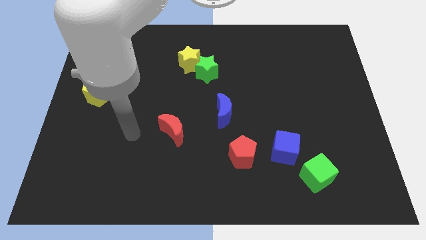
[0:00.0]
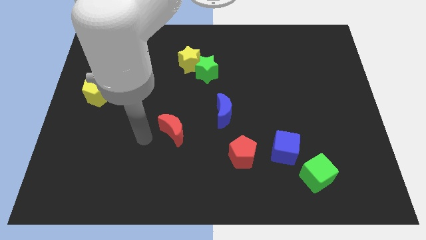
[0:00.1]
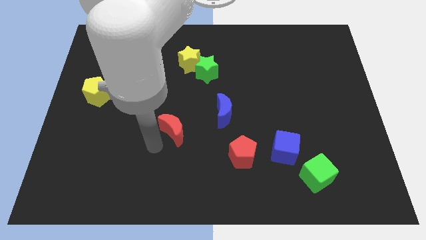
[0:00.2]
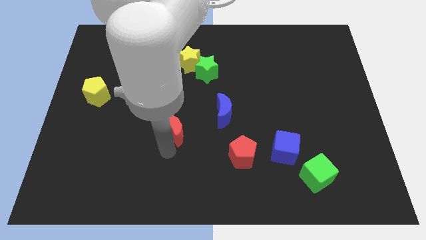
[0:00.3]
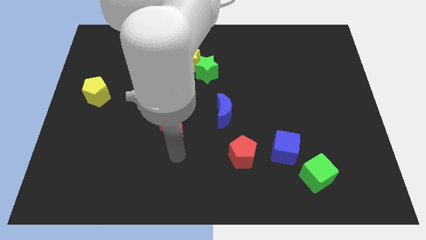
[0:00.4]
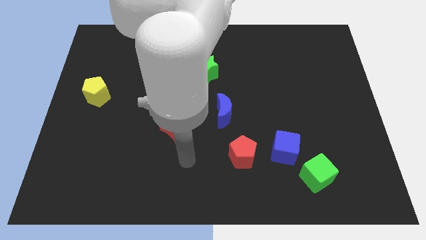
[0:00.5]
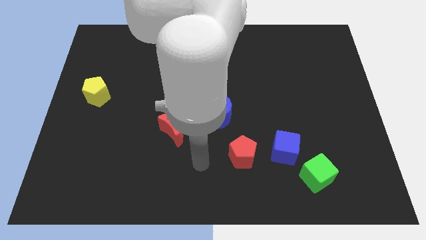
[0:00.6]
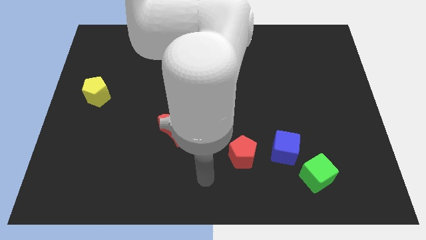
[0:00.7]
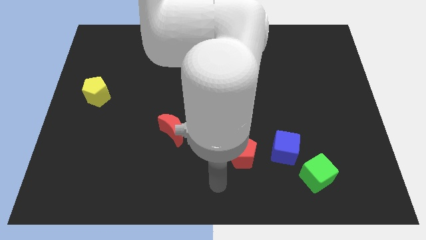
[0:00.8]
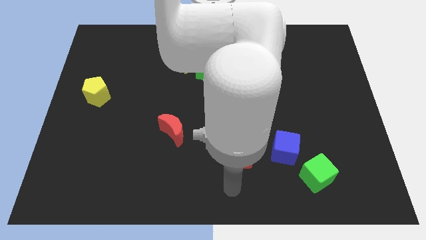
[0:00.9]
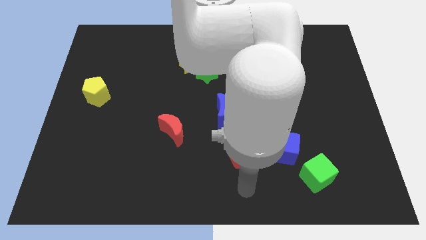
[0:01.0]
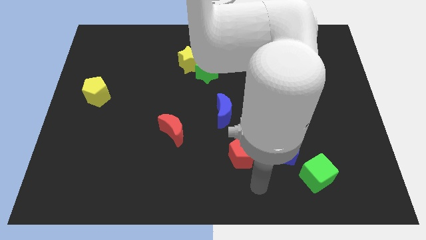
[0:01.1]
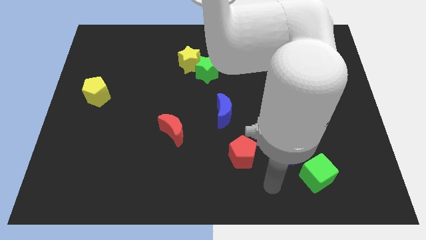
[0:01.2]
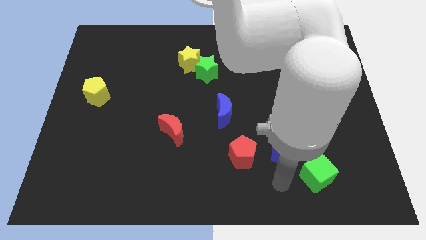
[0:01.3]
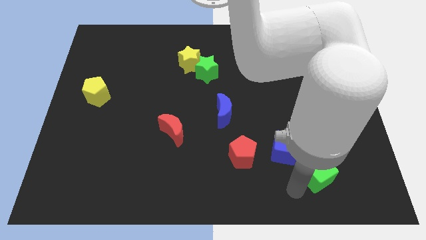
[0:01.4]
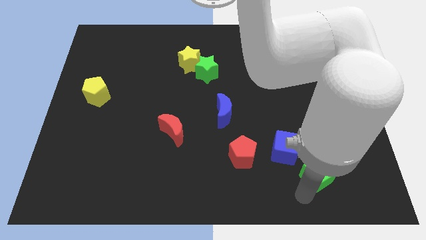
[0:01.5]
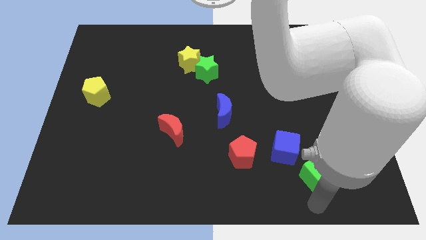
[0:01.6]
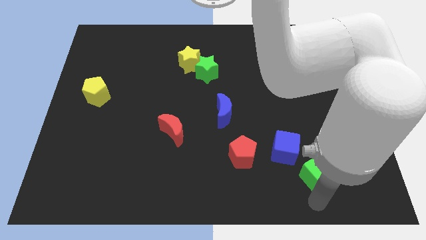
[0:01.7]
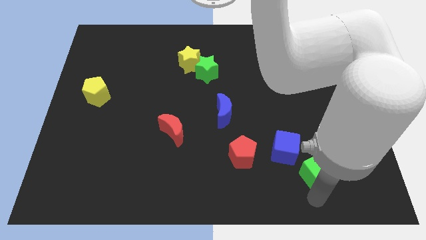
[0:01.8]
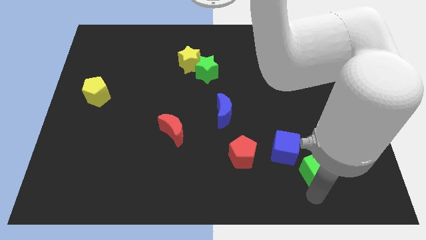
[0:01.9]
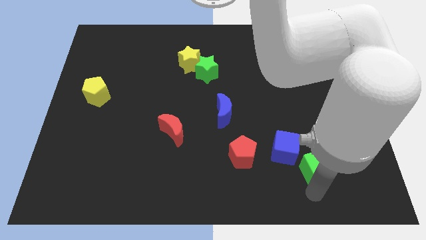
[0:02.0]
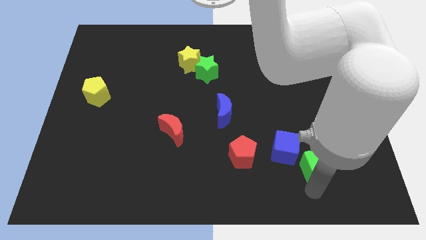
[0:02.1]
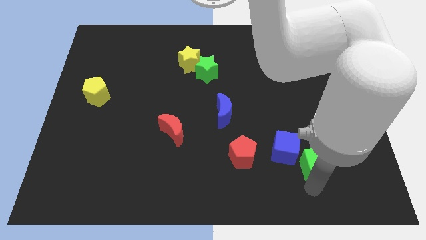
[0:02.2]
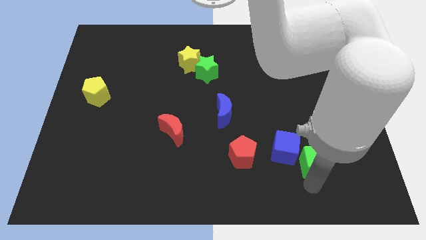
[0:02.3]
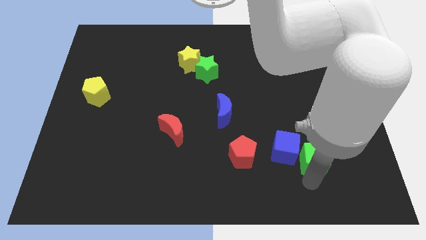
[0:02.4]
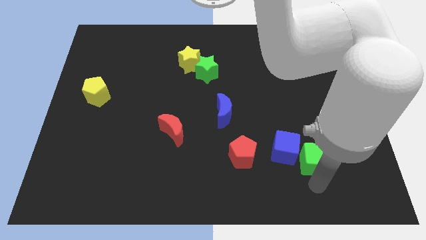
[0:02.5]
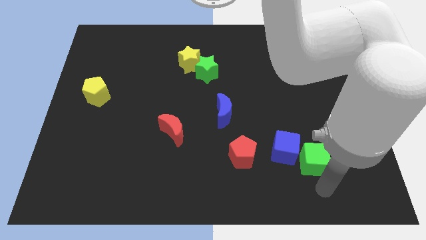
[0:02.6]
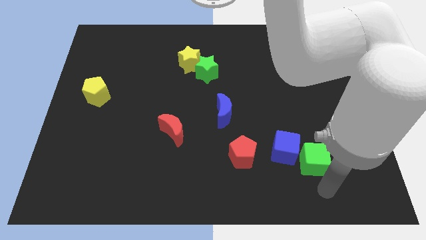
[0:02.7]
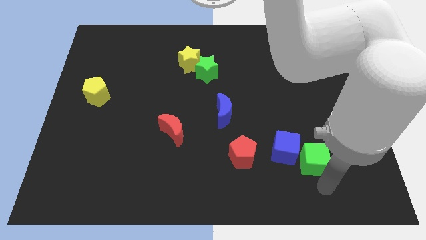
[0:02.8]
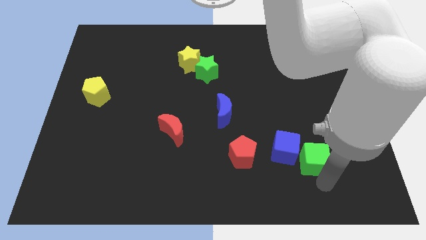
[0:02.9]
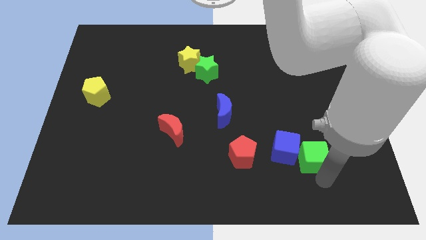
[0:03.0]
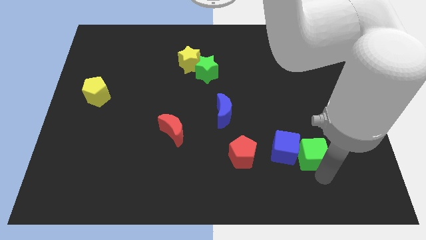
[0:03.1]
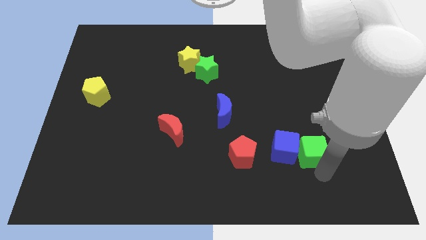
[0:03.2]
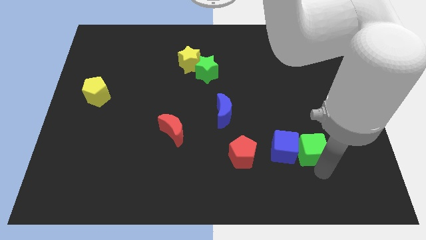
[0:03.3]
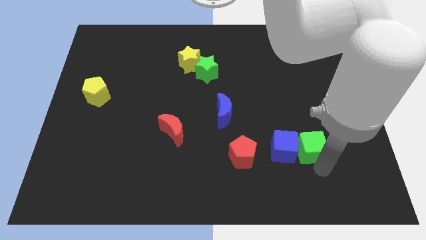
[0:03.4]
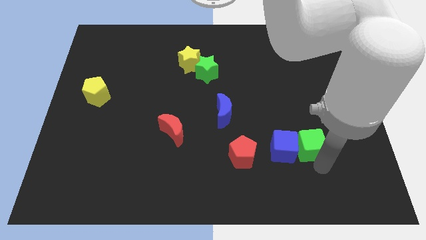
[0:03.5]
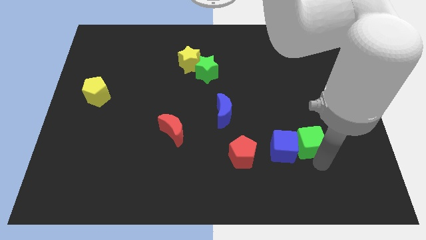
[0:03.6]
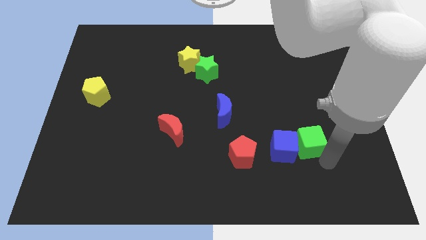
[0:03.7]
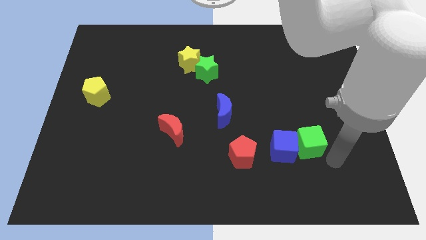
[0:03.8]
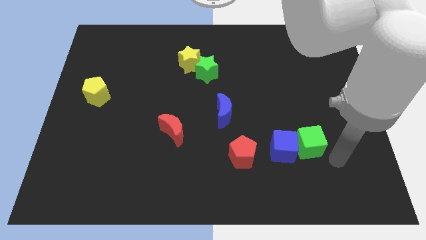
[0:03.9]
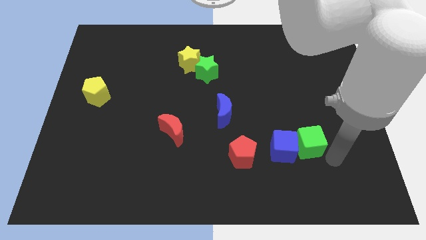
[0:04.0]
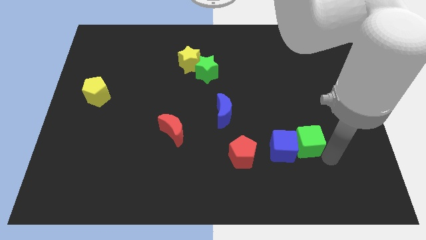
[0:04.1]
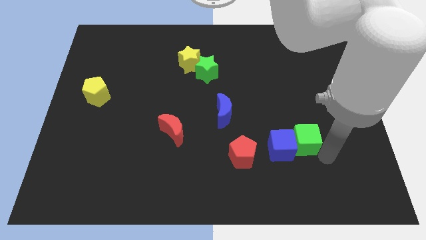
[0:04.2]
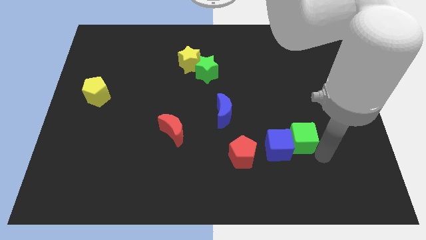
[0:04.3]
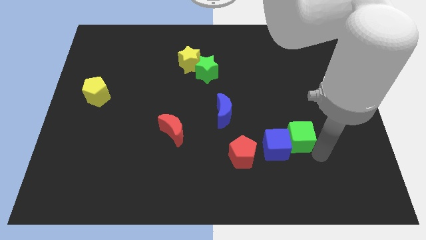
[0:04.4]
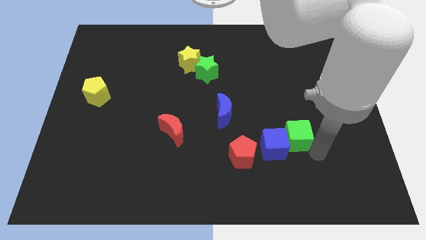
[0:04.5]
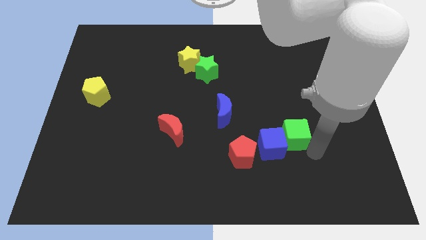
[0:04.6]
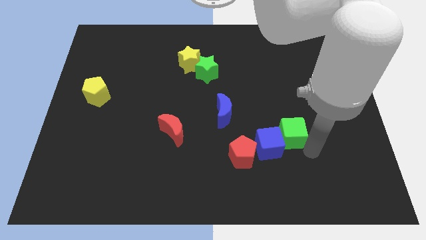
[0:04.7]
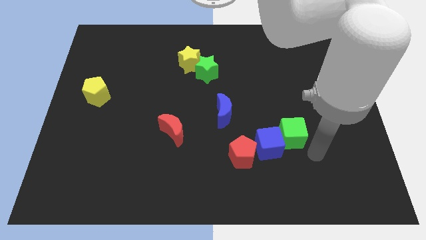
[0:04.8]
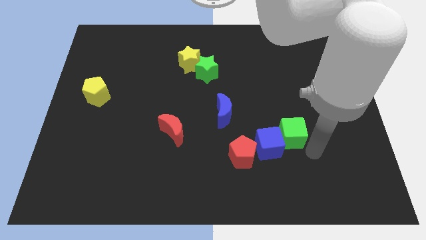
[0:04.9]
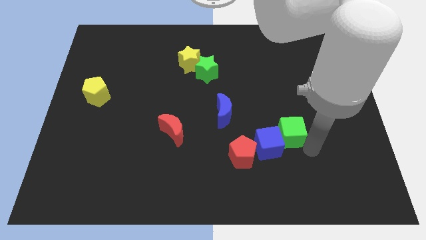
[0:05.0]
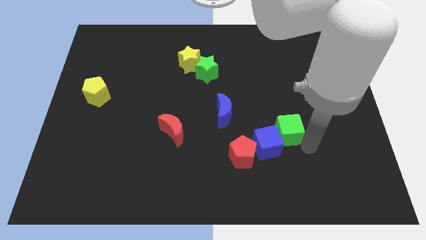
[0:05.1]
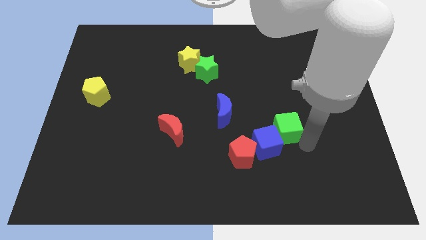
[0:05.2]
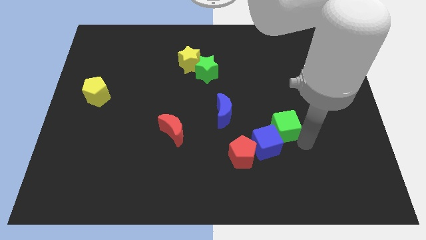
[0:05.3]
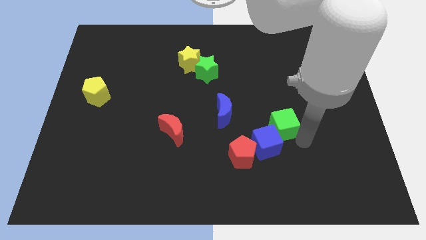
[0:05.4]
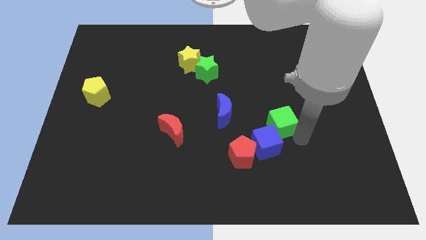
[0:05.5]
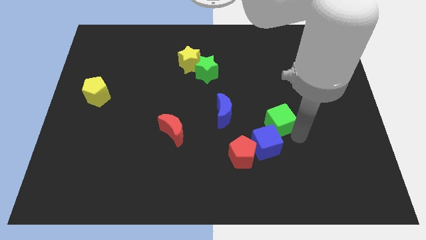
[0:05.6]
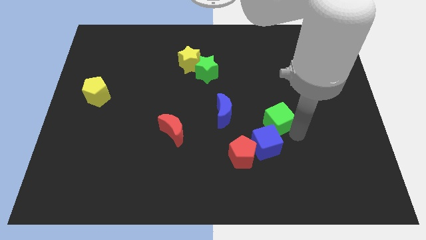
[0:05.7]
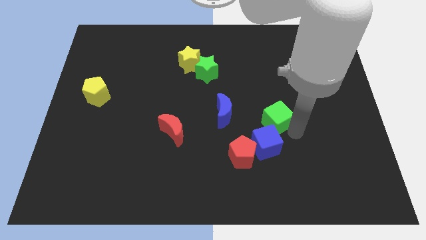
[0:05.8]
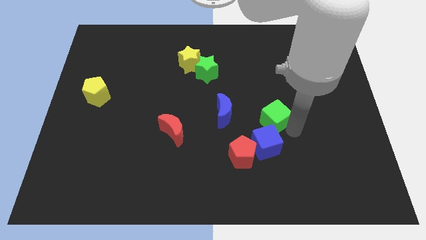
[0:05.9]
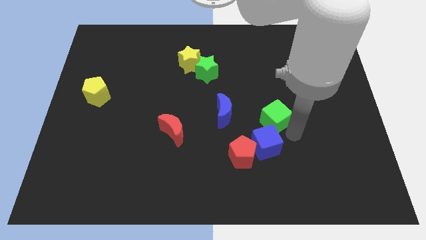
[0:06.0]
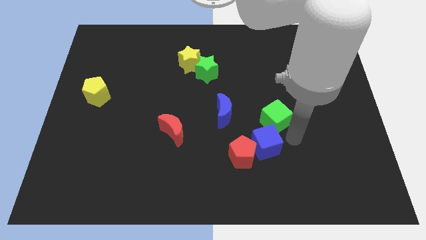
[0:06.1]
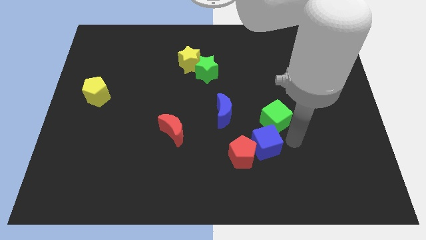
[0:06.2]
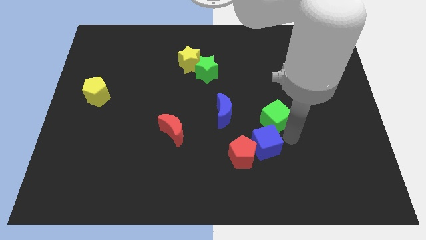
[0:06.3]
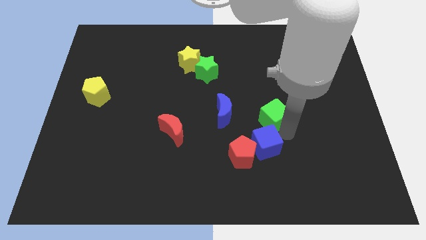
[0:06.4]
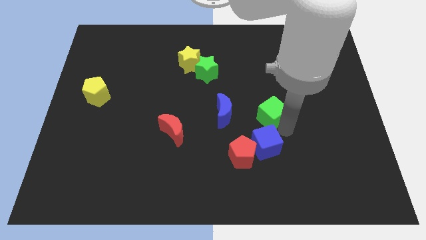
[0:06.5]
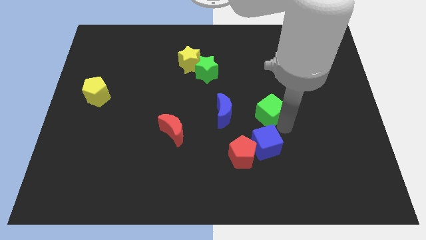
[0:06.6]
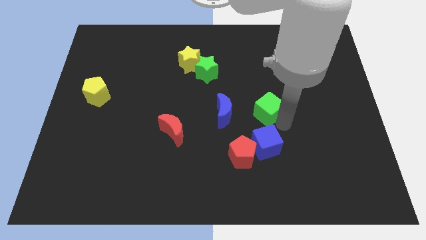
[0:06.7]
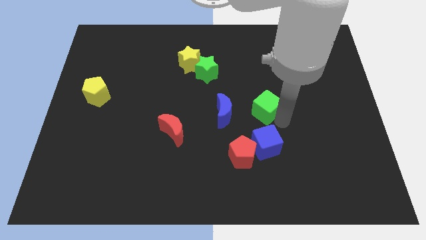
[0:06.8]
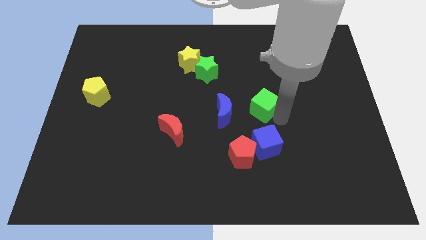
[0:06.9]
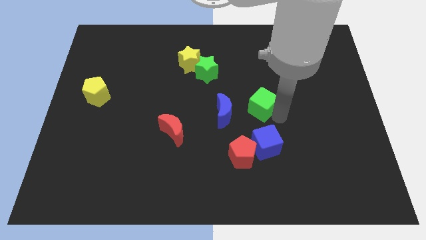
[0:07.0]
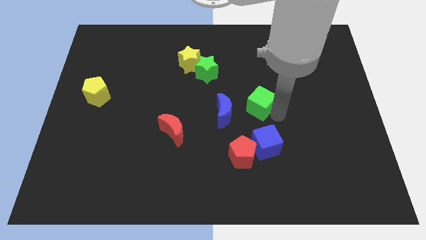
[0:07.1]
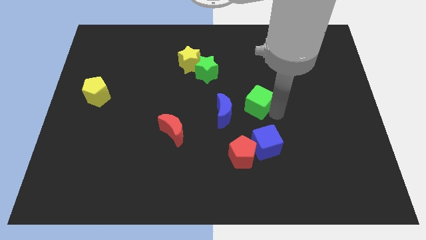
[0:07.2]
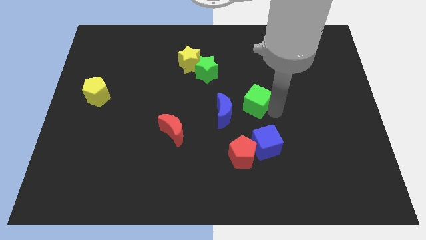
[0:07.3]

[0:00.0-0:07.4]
move the green cube up and left diagonally

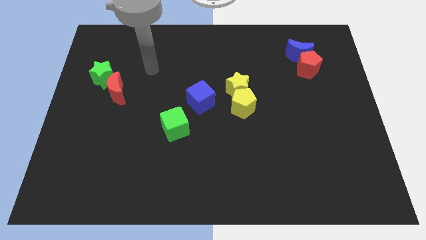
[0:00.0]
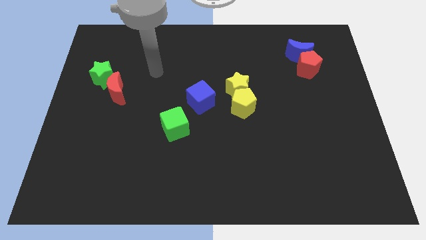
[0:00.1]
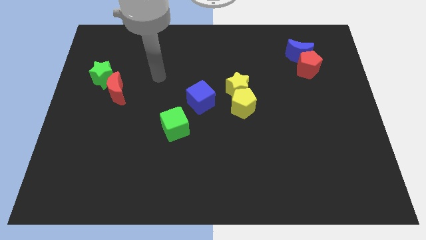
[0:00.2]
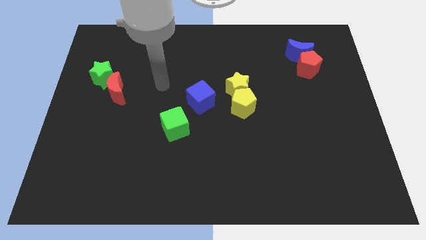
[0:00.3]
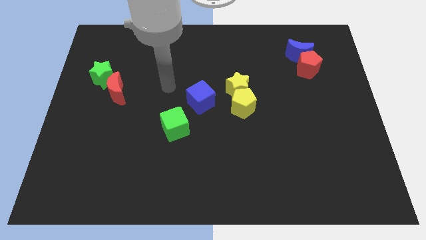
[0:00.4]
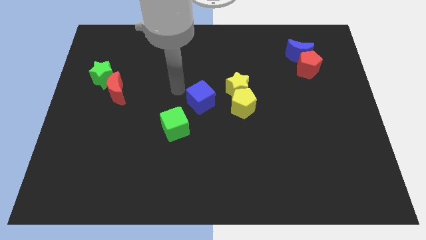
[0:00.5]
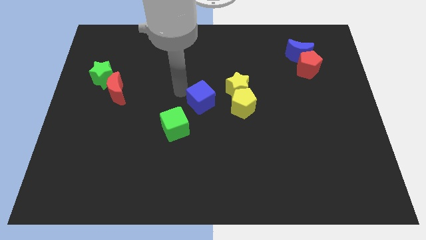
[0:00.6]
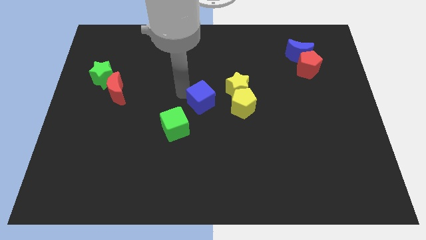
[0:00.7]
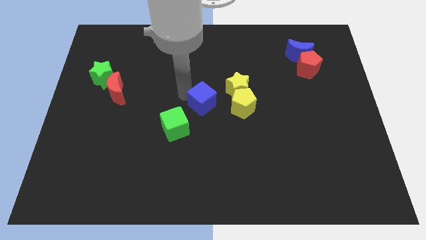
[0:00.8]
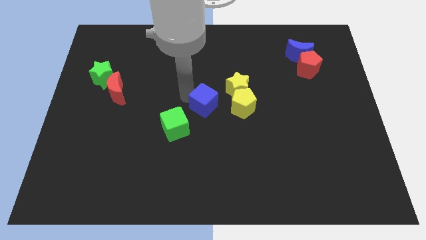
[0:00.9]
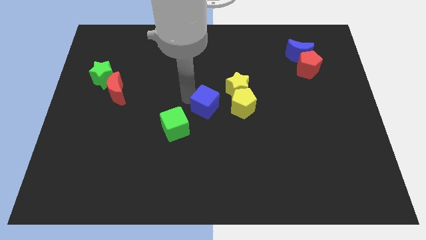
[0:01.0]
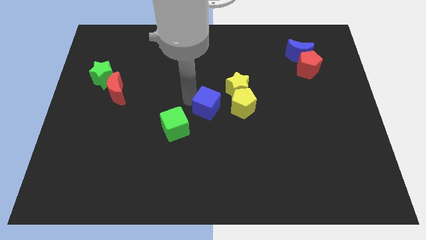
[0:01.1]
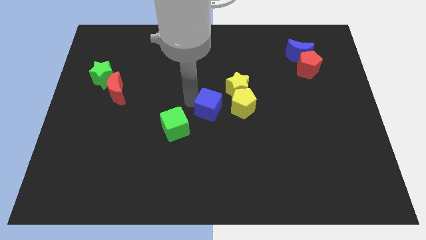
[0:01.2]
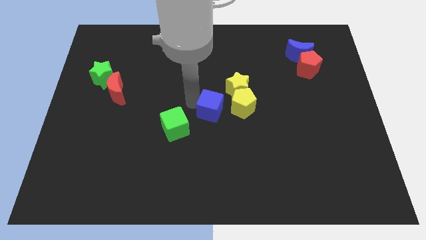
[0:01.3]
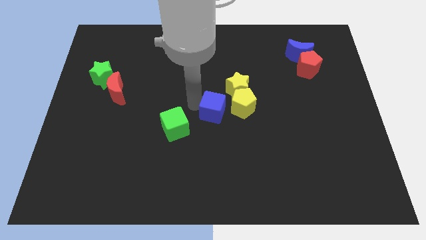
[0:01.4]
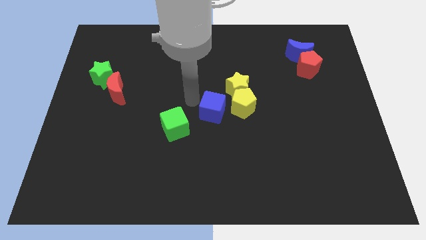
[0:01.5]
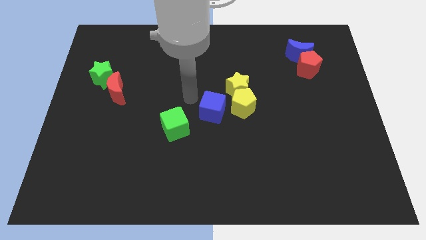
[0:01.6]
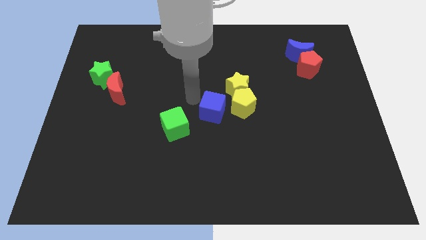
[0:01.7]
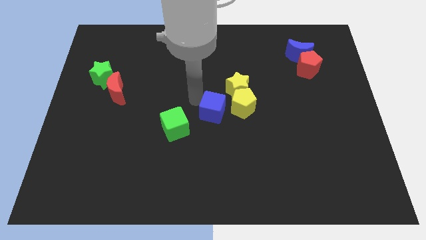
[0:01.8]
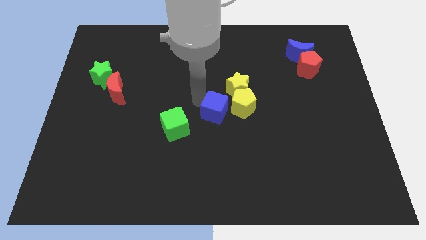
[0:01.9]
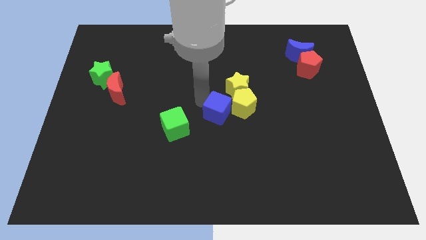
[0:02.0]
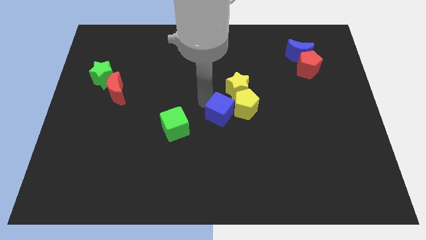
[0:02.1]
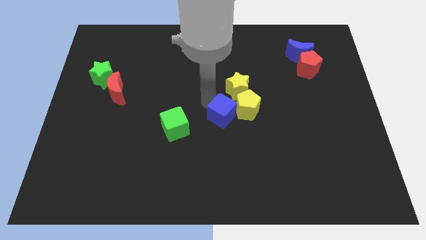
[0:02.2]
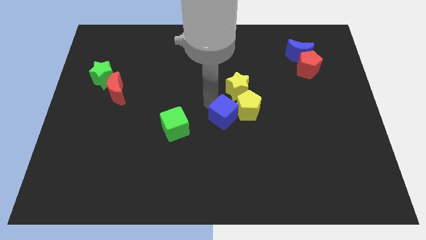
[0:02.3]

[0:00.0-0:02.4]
push the blue cube slightly down and to the right
